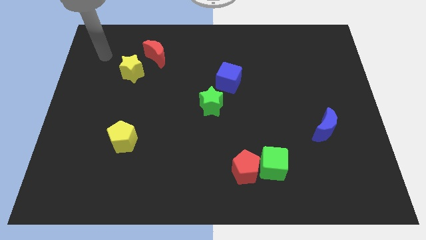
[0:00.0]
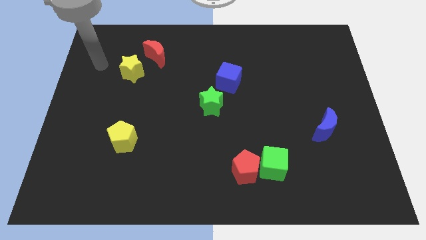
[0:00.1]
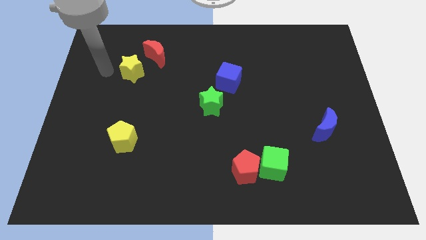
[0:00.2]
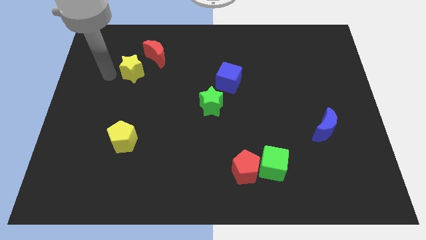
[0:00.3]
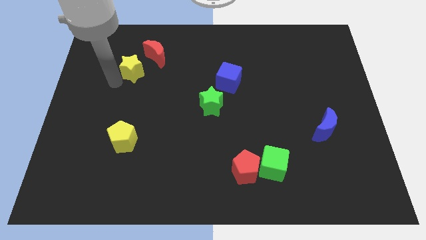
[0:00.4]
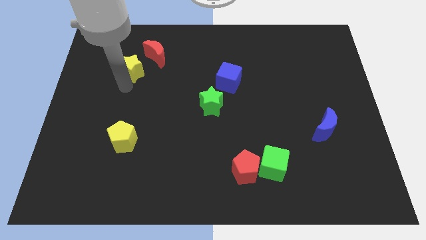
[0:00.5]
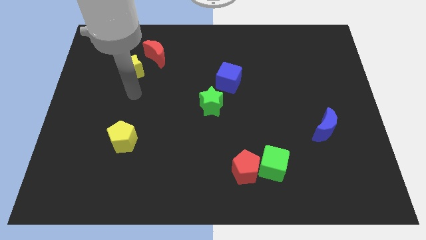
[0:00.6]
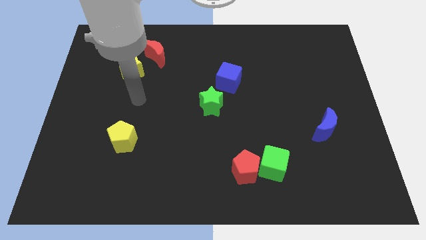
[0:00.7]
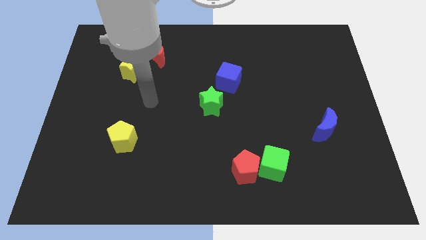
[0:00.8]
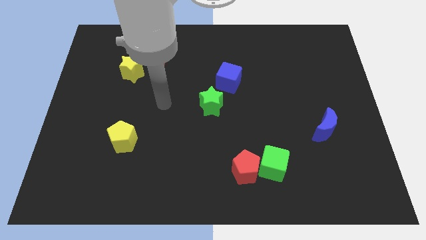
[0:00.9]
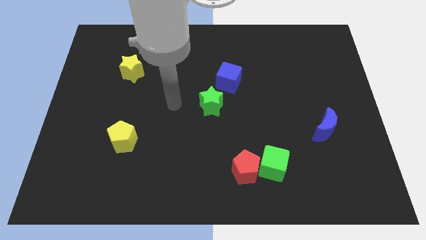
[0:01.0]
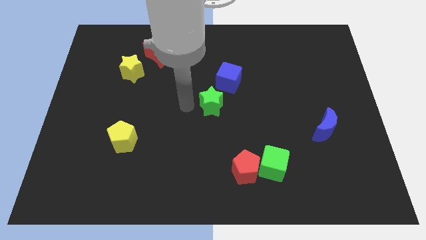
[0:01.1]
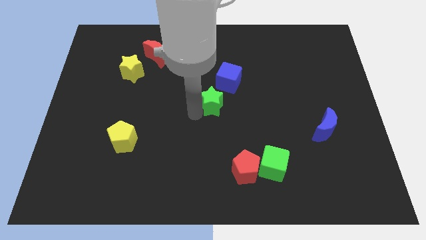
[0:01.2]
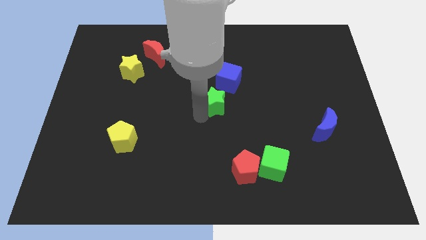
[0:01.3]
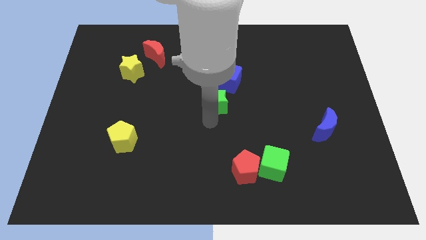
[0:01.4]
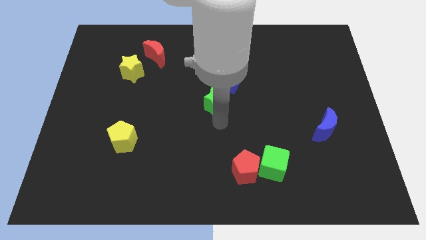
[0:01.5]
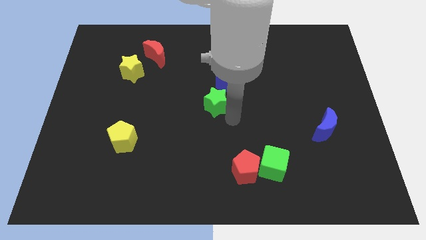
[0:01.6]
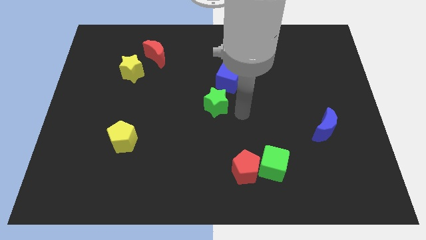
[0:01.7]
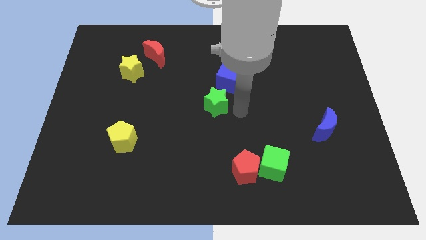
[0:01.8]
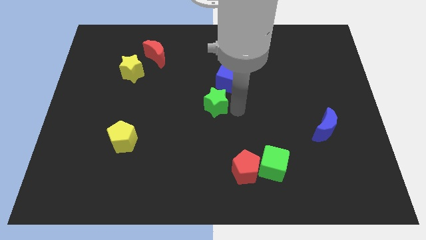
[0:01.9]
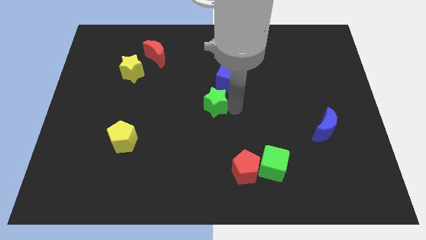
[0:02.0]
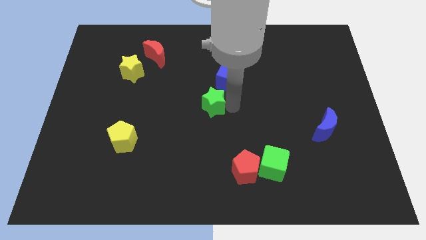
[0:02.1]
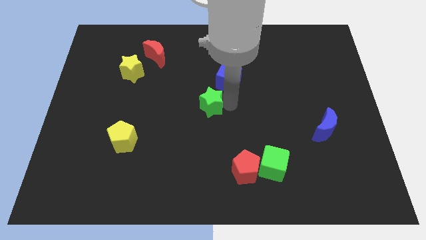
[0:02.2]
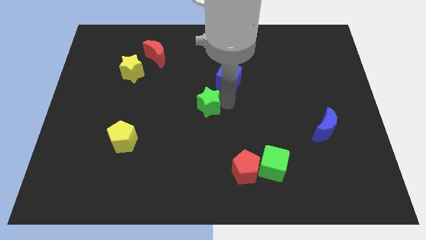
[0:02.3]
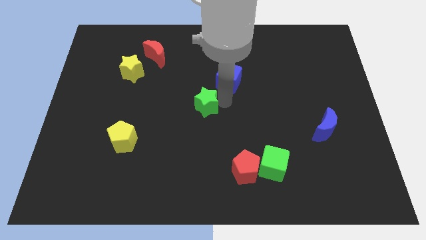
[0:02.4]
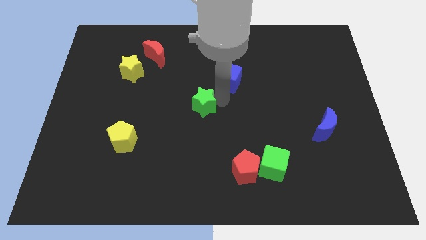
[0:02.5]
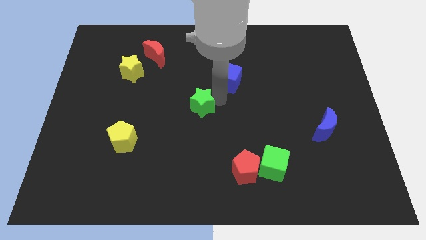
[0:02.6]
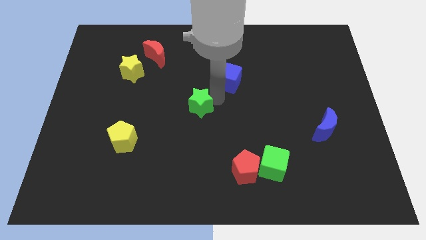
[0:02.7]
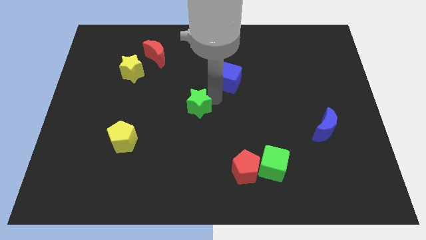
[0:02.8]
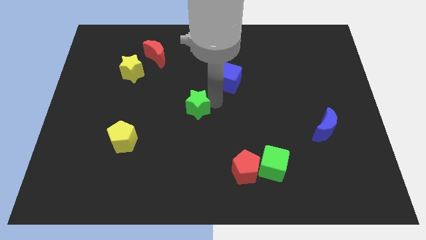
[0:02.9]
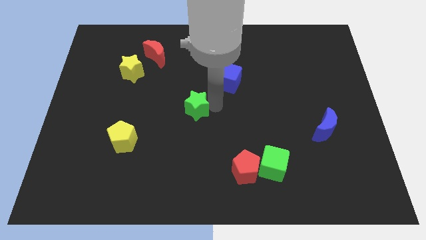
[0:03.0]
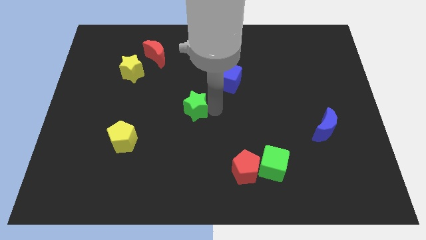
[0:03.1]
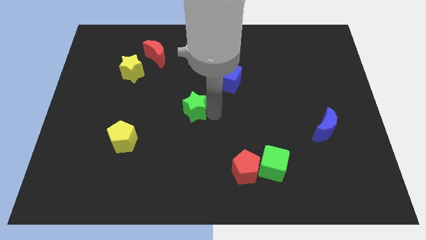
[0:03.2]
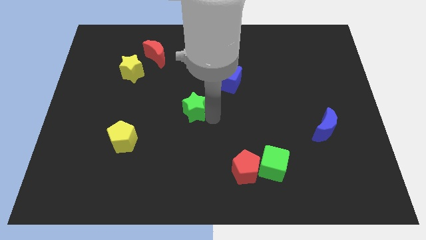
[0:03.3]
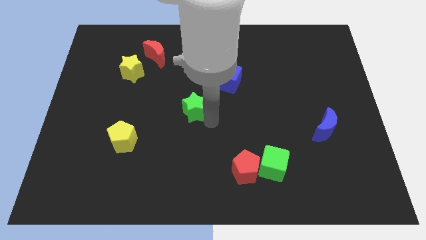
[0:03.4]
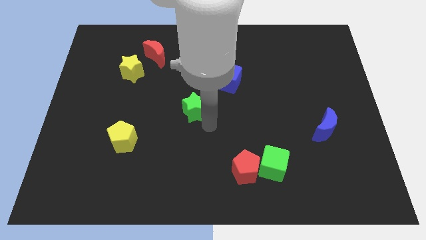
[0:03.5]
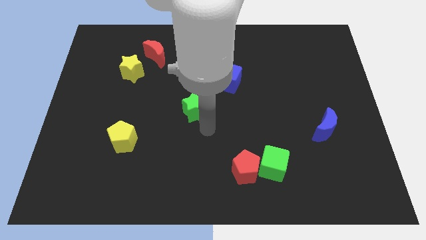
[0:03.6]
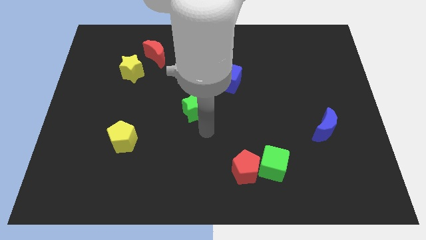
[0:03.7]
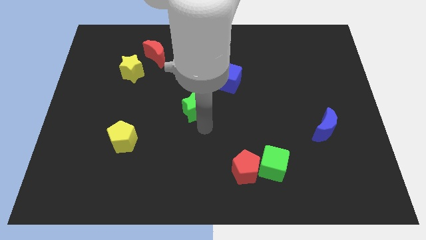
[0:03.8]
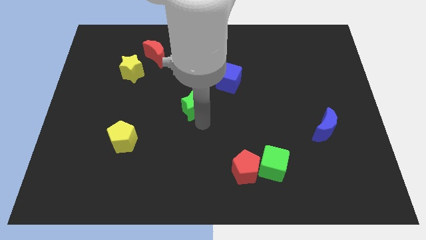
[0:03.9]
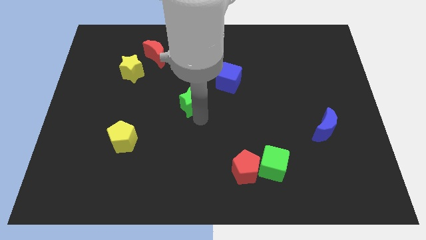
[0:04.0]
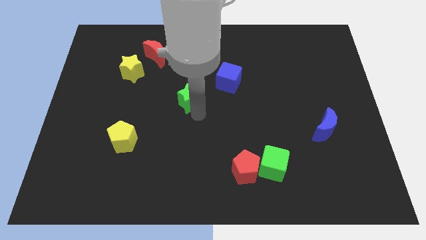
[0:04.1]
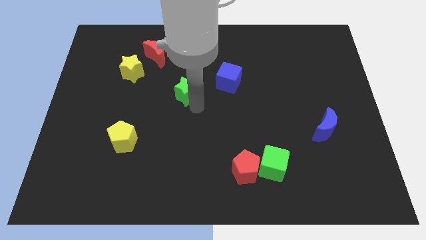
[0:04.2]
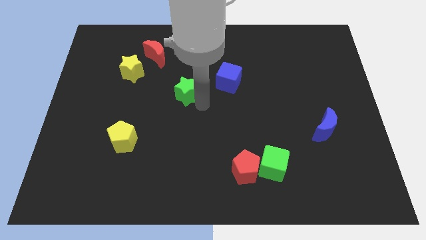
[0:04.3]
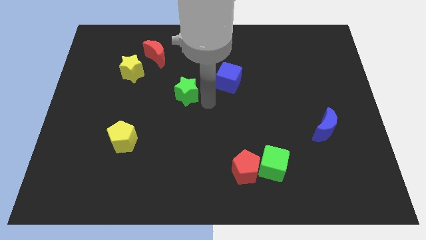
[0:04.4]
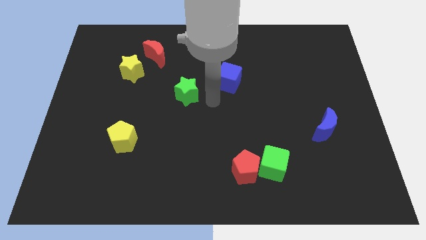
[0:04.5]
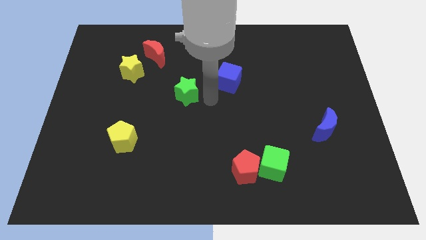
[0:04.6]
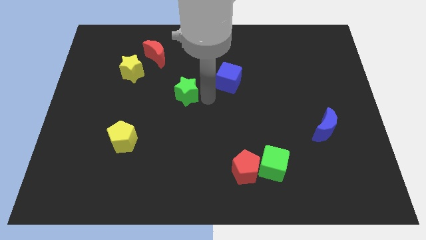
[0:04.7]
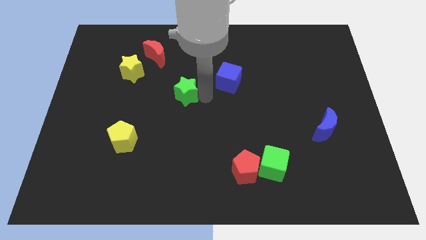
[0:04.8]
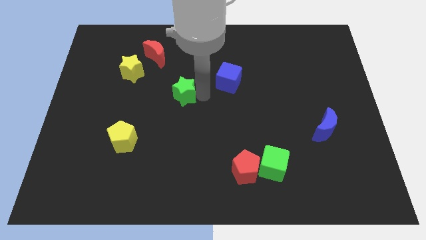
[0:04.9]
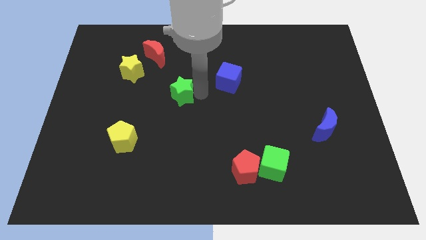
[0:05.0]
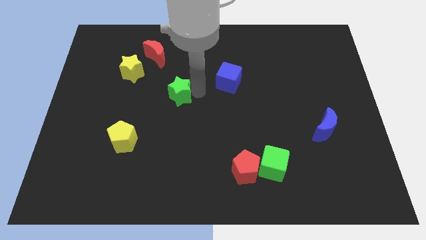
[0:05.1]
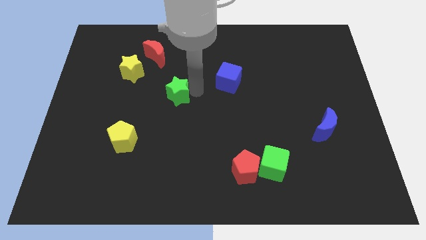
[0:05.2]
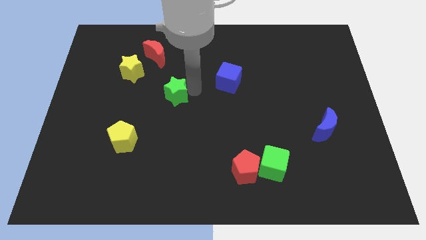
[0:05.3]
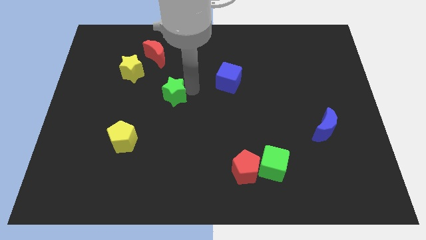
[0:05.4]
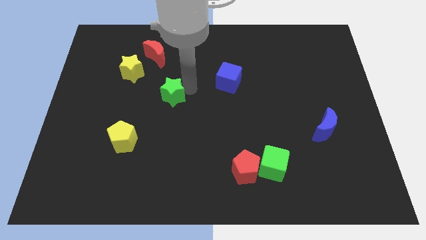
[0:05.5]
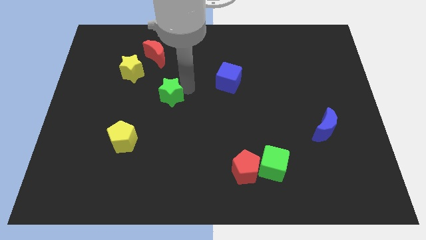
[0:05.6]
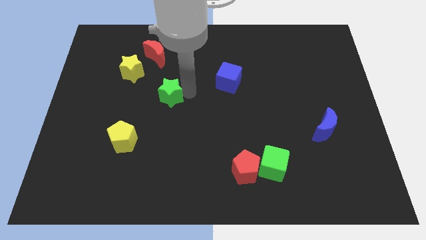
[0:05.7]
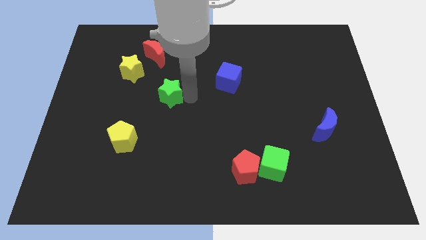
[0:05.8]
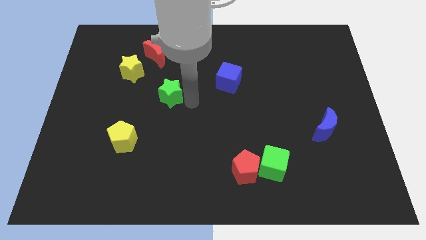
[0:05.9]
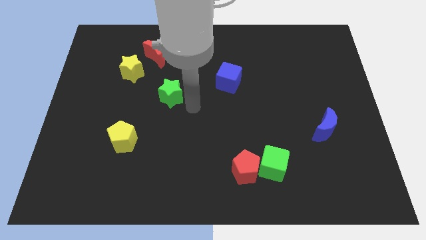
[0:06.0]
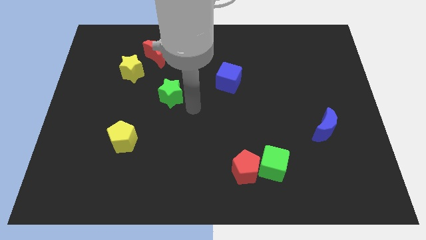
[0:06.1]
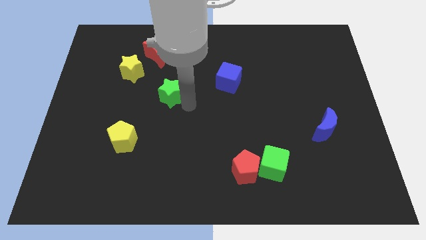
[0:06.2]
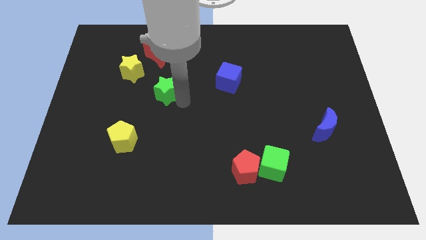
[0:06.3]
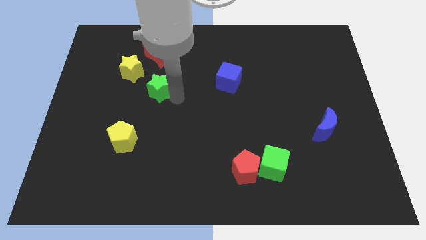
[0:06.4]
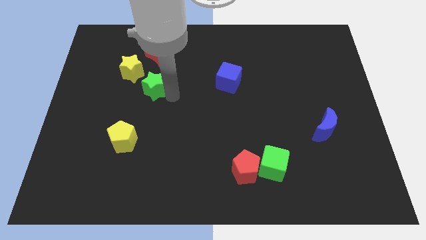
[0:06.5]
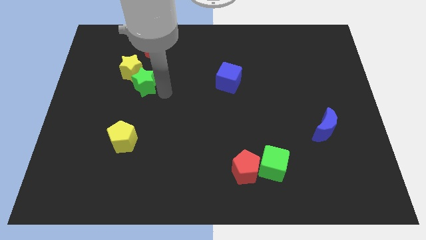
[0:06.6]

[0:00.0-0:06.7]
push the green star next to the yellow star
